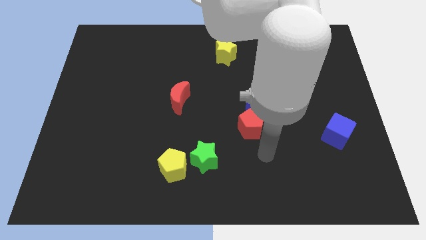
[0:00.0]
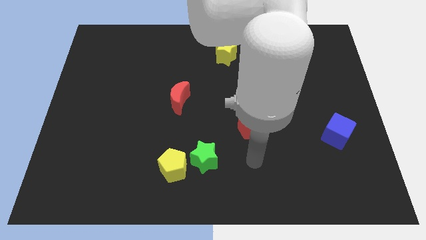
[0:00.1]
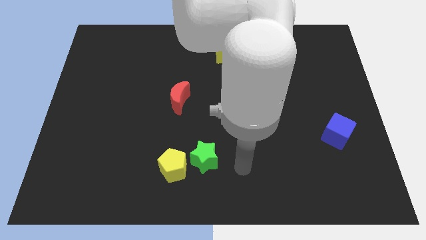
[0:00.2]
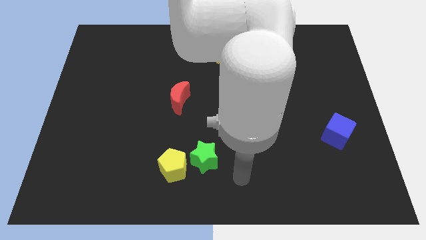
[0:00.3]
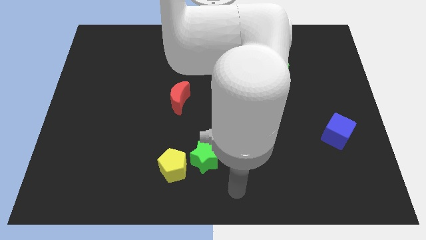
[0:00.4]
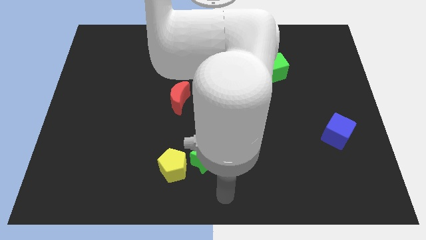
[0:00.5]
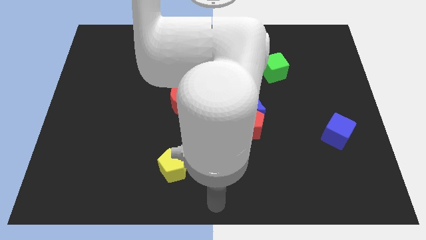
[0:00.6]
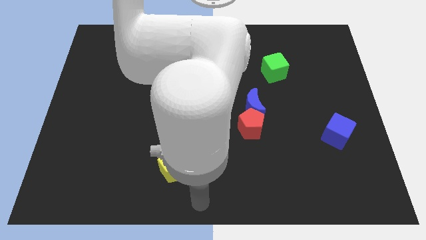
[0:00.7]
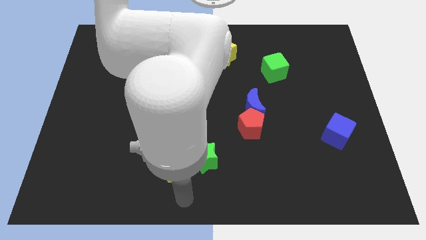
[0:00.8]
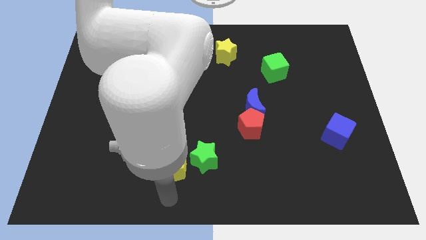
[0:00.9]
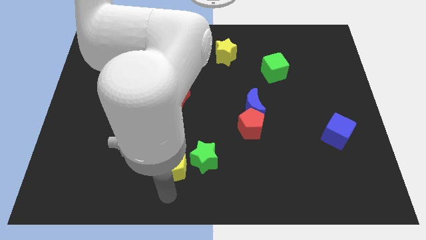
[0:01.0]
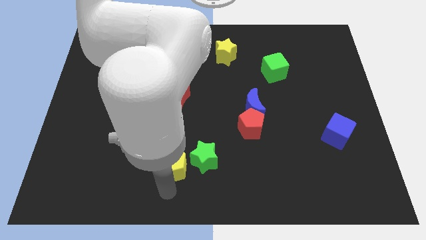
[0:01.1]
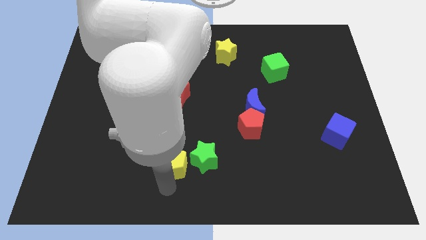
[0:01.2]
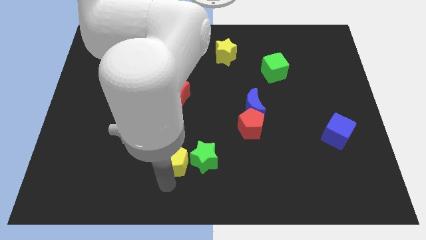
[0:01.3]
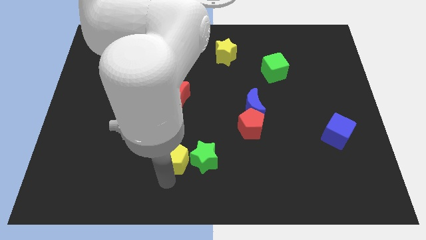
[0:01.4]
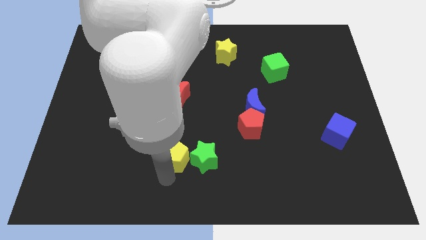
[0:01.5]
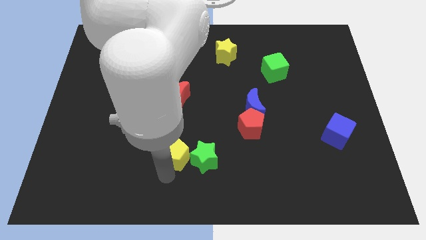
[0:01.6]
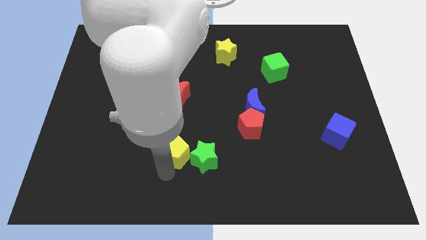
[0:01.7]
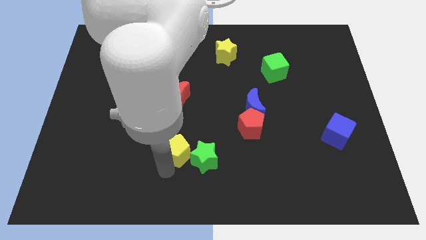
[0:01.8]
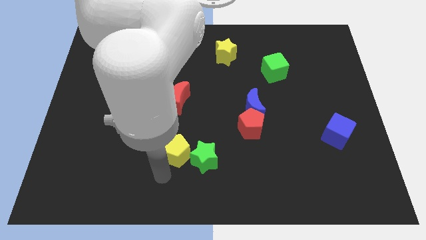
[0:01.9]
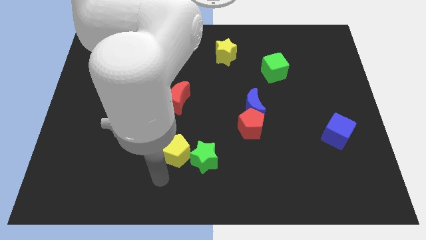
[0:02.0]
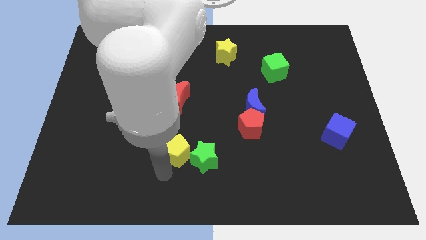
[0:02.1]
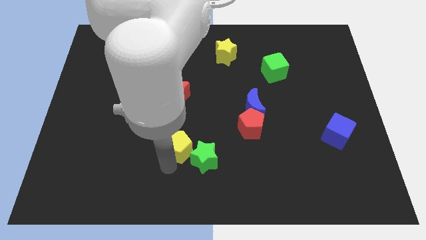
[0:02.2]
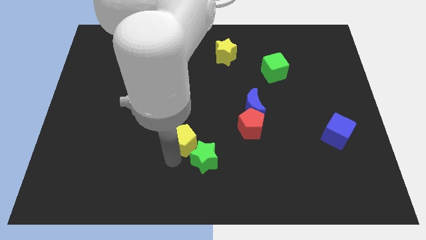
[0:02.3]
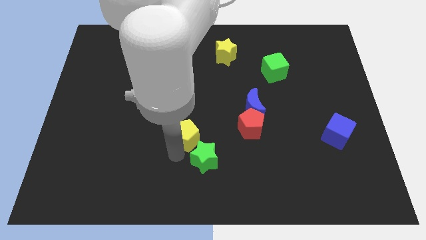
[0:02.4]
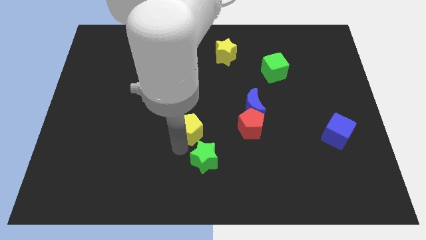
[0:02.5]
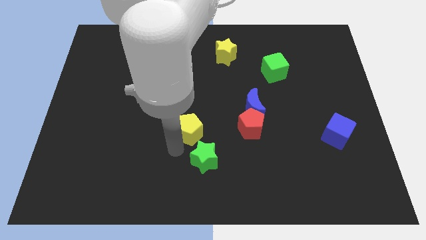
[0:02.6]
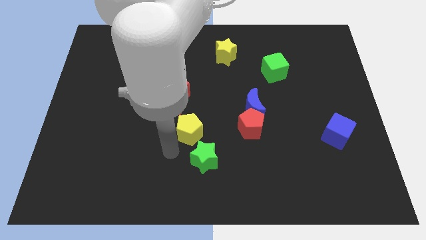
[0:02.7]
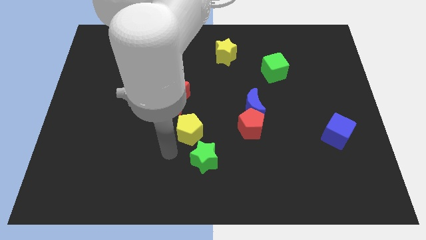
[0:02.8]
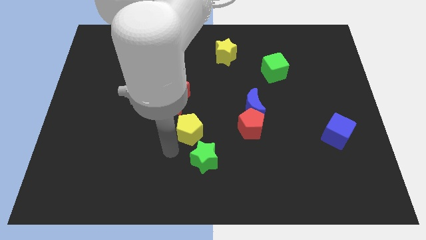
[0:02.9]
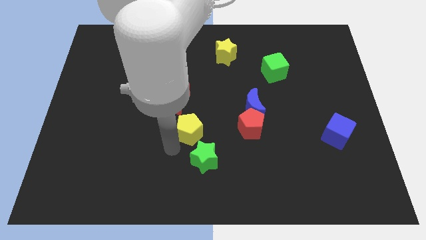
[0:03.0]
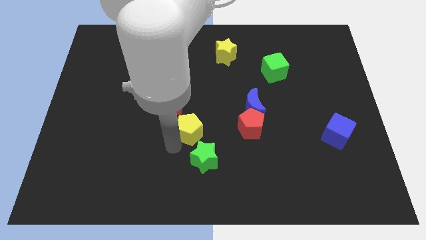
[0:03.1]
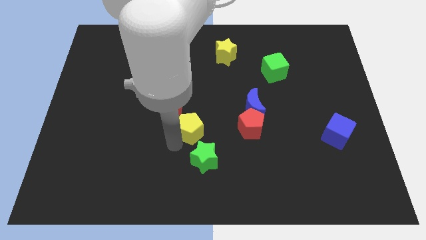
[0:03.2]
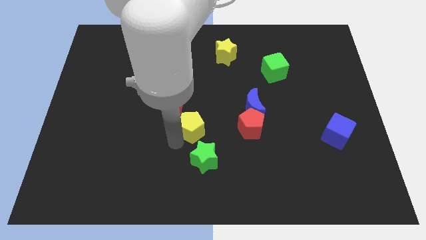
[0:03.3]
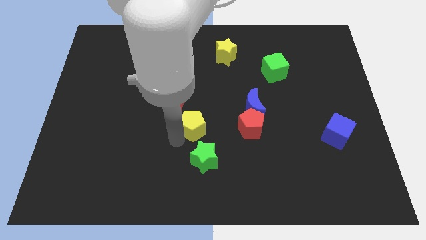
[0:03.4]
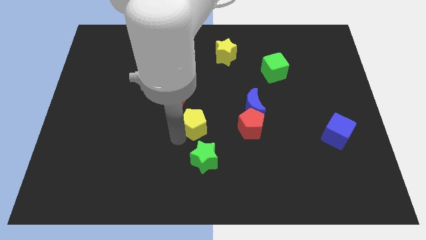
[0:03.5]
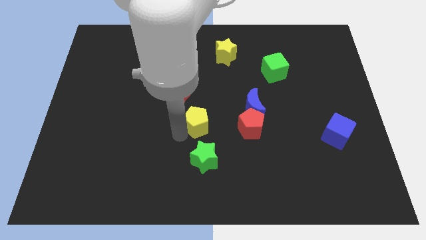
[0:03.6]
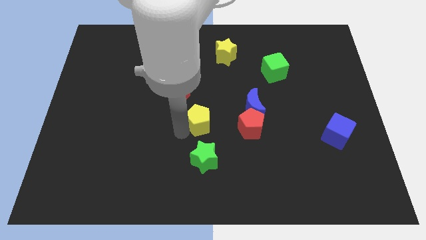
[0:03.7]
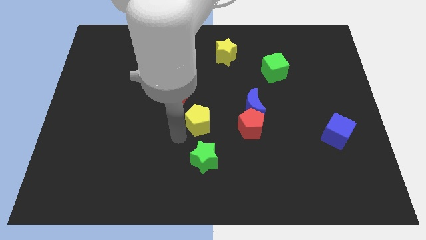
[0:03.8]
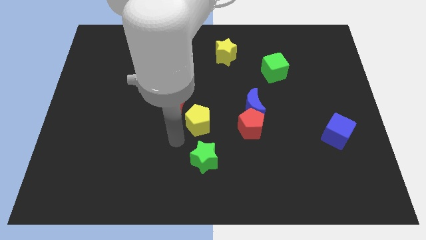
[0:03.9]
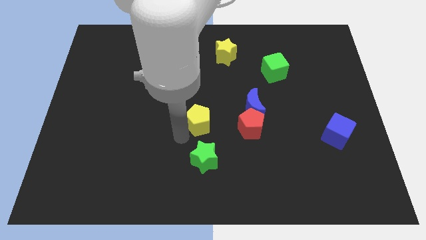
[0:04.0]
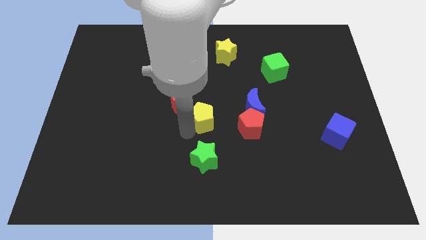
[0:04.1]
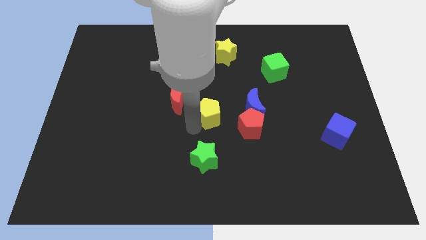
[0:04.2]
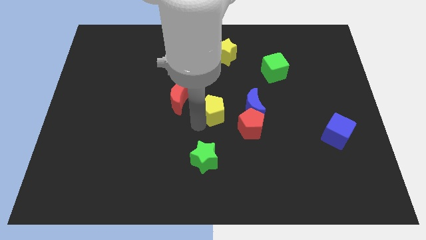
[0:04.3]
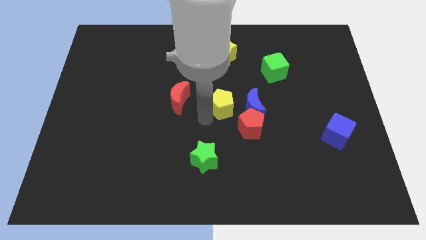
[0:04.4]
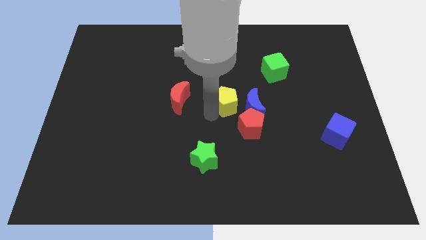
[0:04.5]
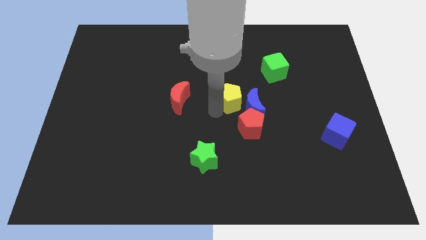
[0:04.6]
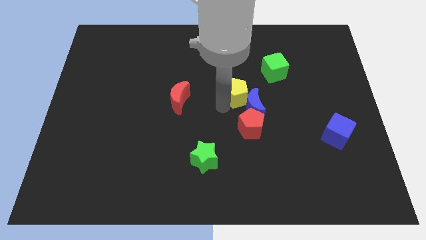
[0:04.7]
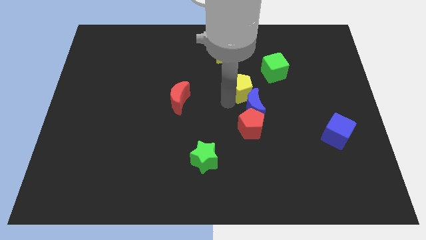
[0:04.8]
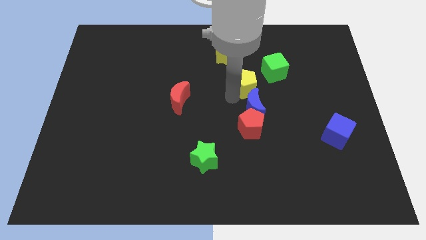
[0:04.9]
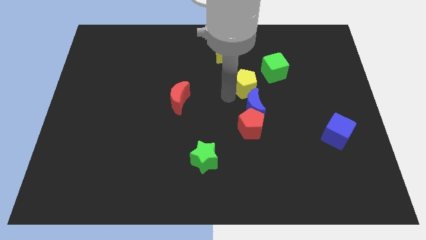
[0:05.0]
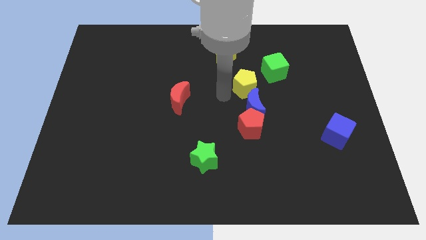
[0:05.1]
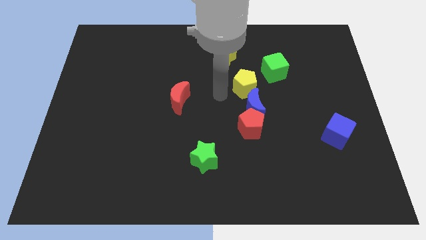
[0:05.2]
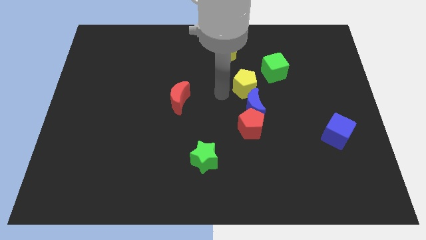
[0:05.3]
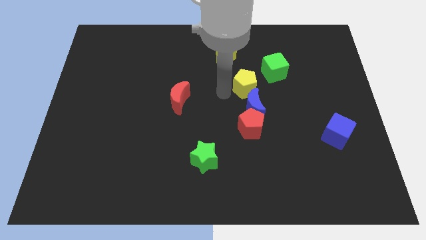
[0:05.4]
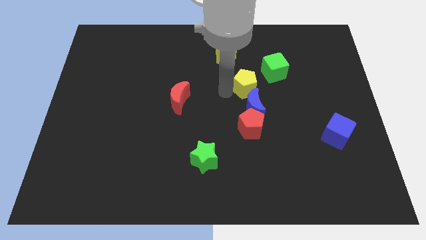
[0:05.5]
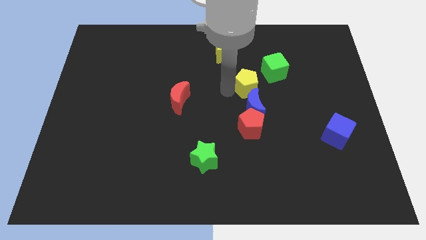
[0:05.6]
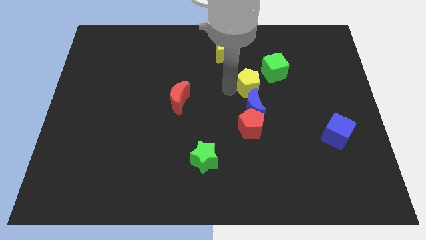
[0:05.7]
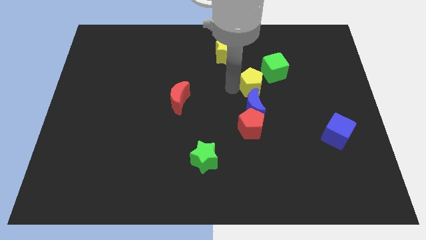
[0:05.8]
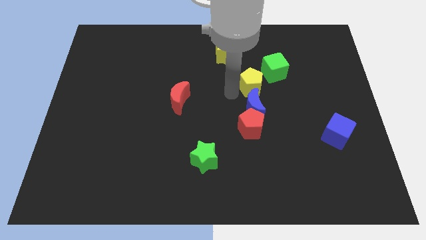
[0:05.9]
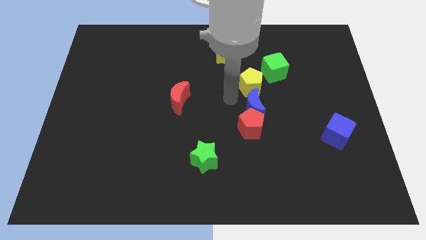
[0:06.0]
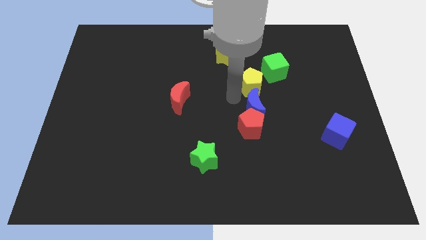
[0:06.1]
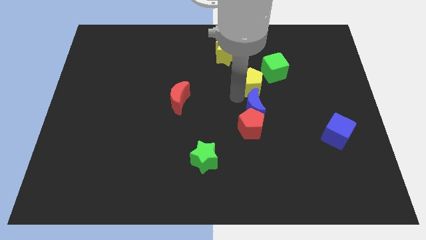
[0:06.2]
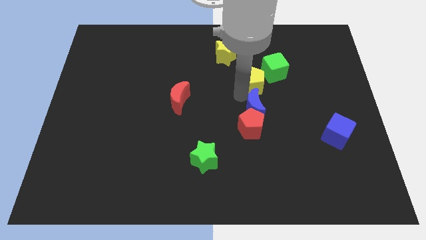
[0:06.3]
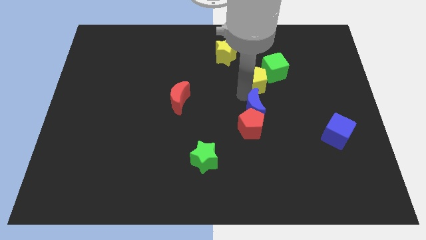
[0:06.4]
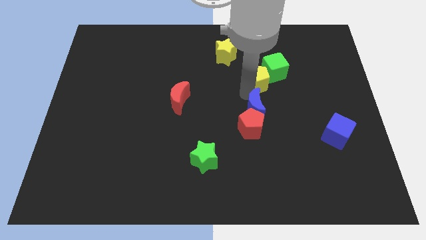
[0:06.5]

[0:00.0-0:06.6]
slide the yellow pentagon next to the green cube
